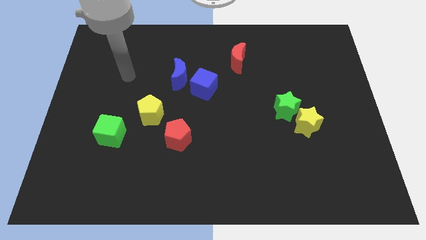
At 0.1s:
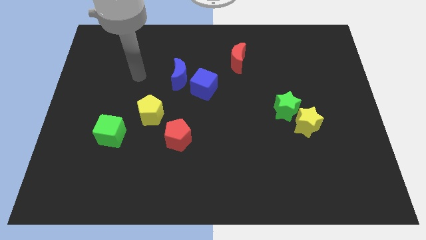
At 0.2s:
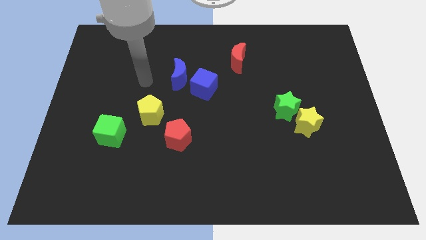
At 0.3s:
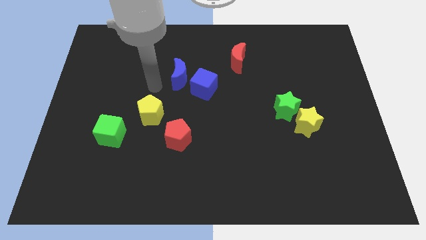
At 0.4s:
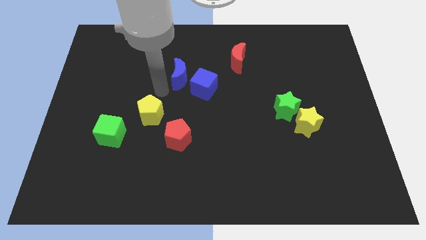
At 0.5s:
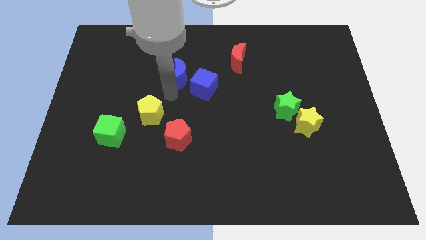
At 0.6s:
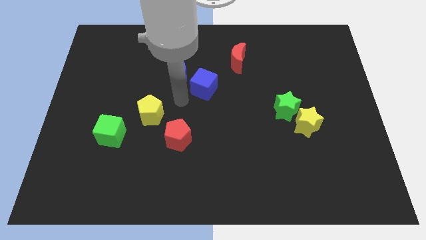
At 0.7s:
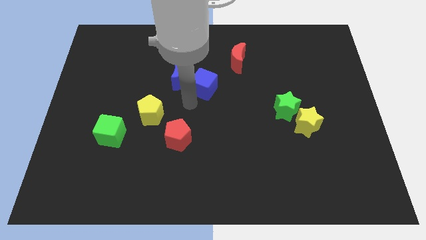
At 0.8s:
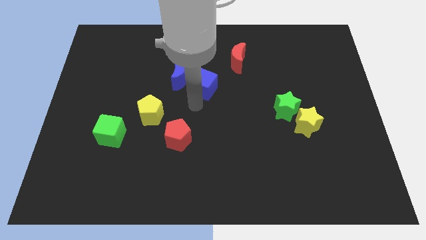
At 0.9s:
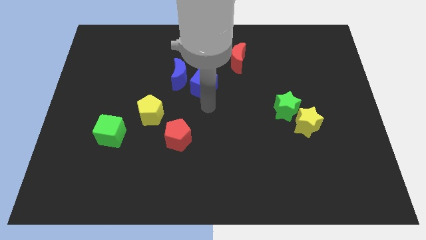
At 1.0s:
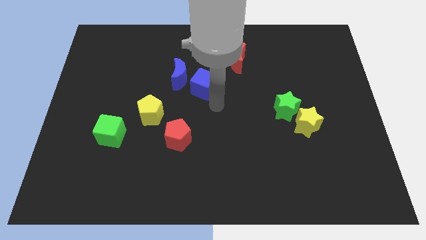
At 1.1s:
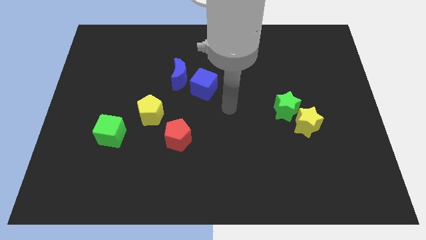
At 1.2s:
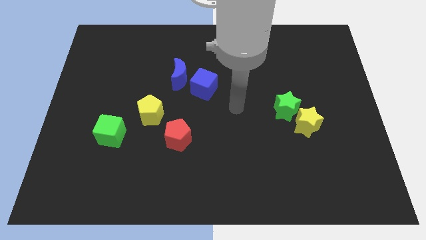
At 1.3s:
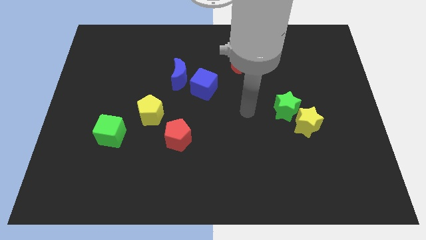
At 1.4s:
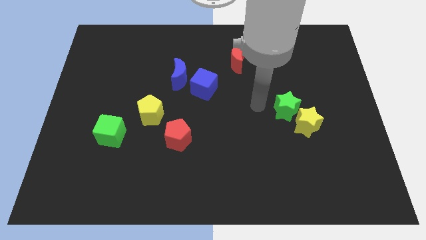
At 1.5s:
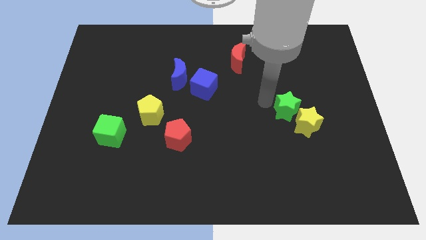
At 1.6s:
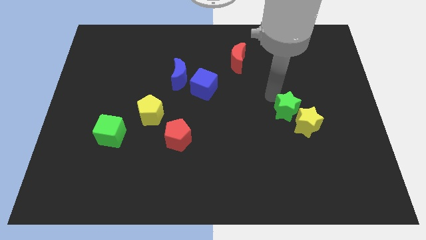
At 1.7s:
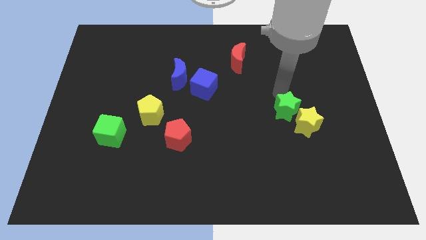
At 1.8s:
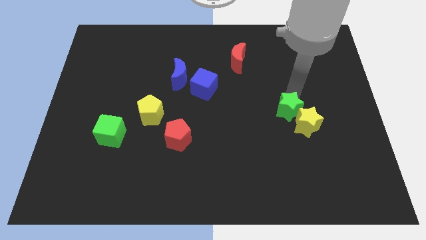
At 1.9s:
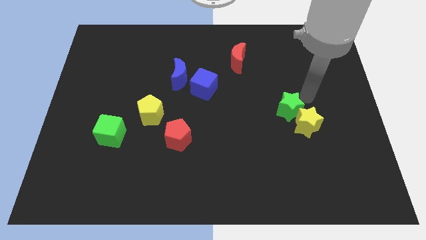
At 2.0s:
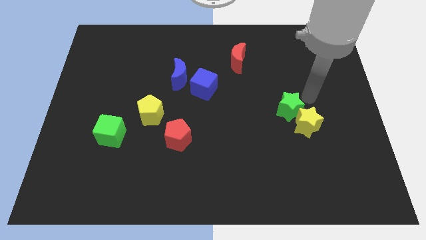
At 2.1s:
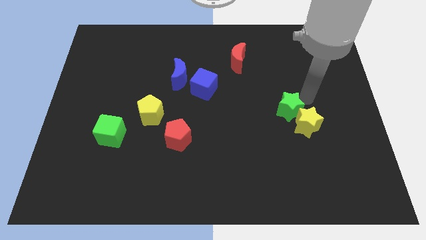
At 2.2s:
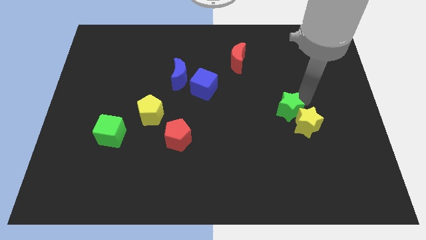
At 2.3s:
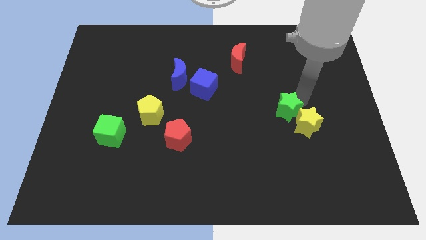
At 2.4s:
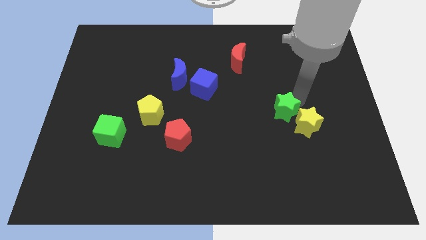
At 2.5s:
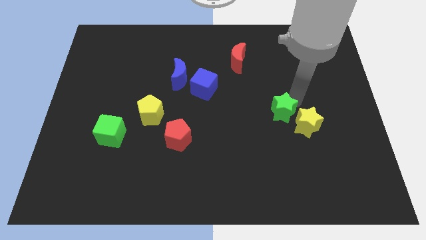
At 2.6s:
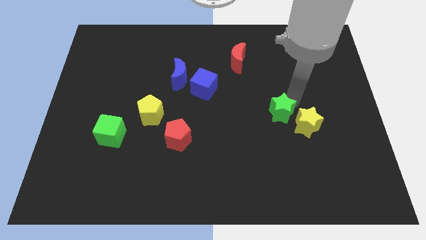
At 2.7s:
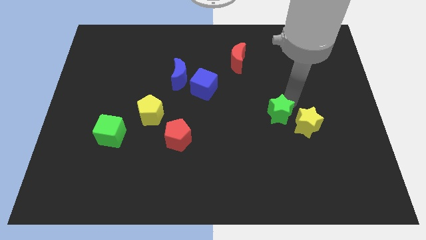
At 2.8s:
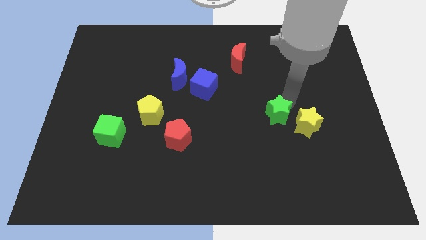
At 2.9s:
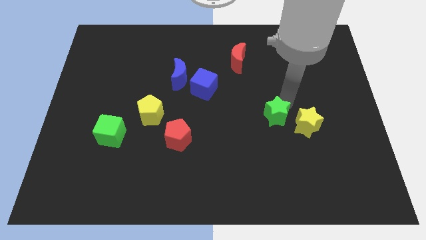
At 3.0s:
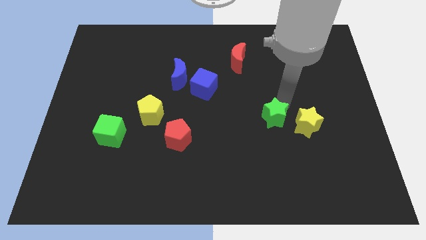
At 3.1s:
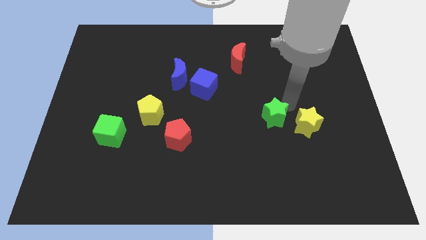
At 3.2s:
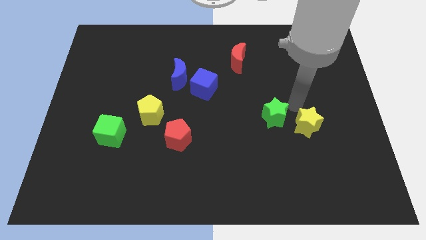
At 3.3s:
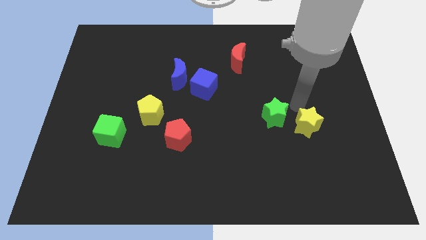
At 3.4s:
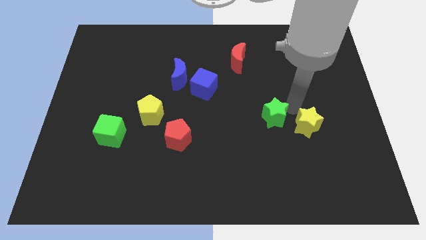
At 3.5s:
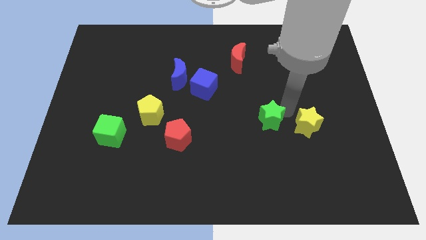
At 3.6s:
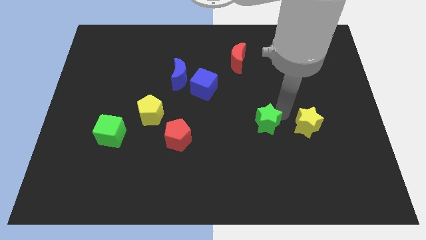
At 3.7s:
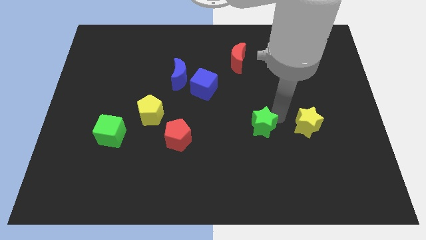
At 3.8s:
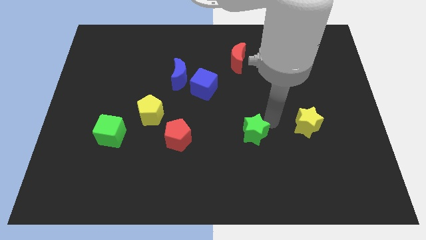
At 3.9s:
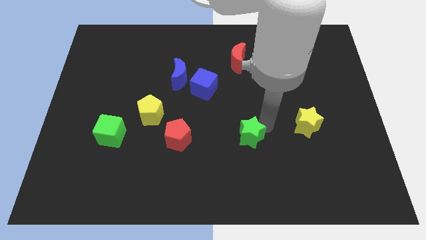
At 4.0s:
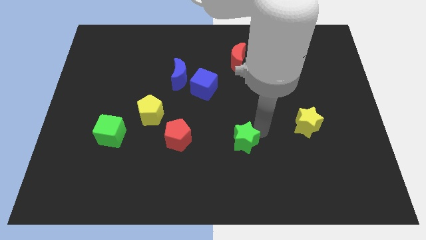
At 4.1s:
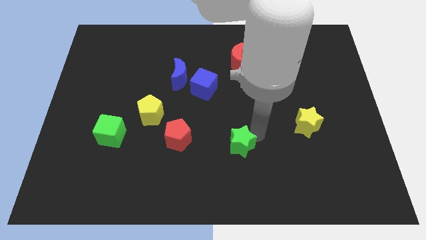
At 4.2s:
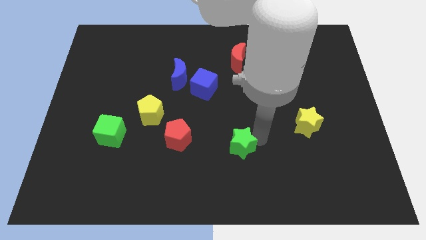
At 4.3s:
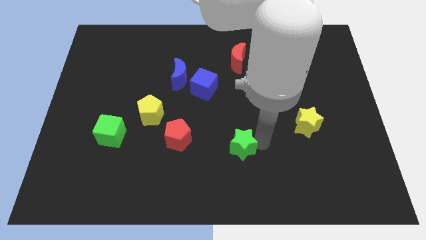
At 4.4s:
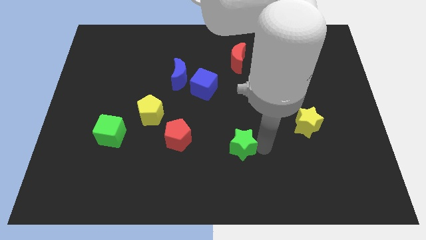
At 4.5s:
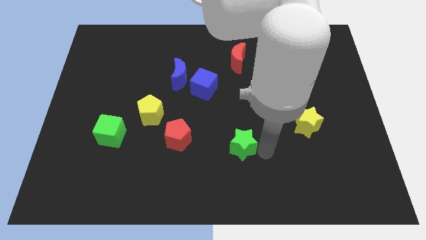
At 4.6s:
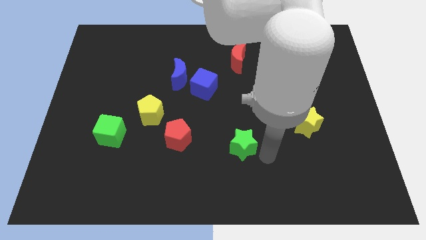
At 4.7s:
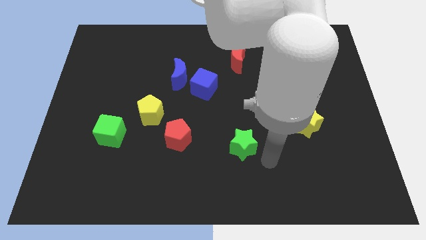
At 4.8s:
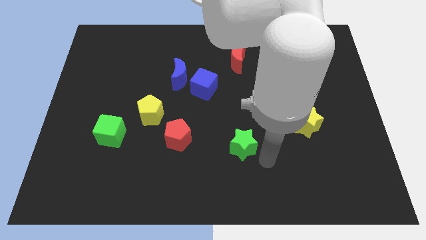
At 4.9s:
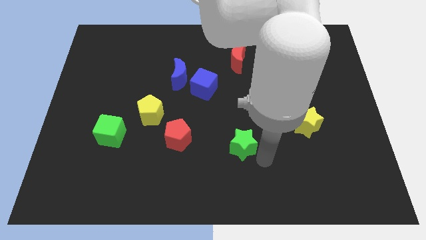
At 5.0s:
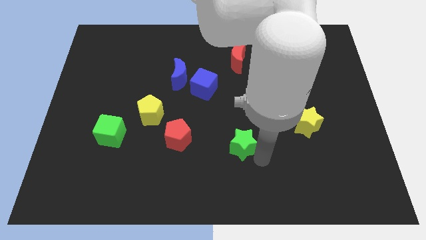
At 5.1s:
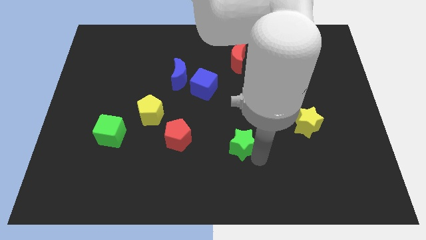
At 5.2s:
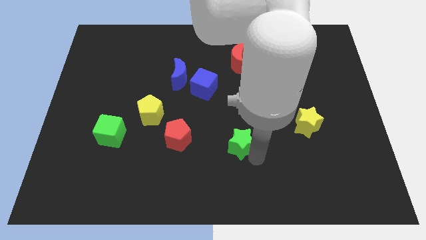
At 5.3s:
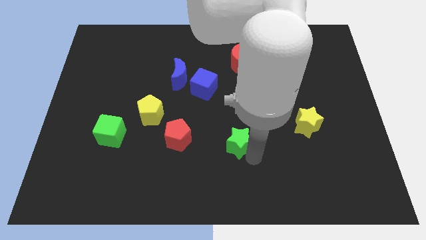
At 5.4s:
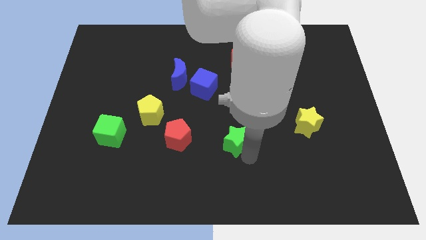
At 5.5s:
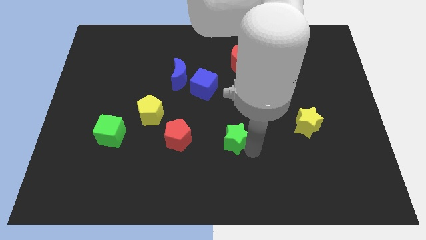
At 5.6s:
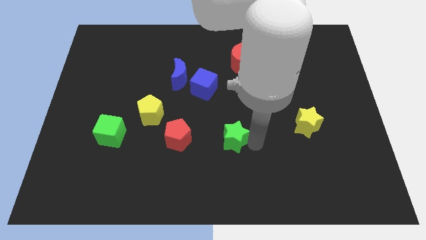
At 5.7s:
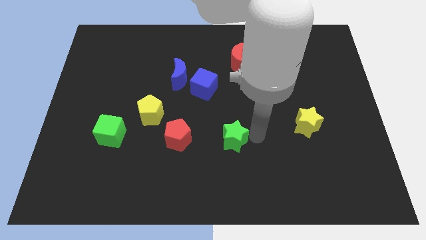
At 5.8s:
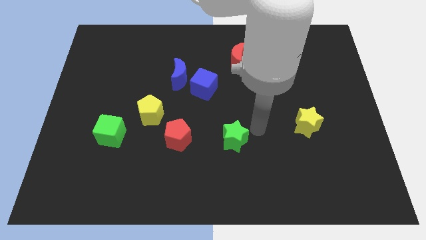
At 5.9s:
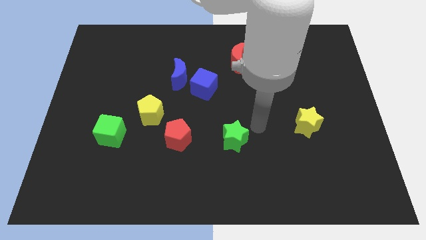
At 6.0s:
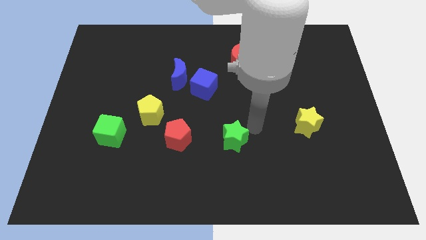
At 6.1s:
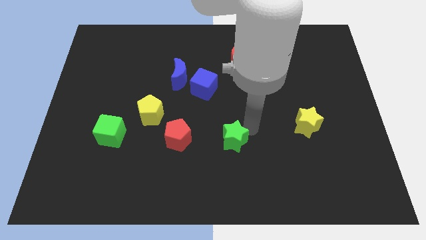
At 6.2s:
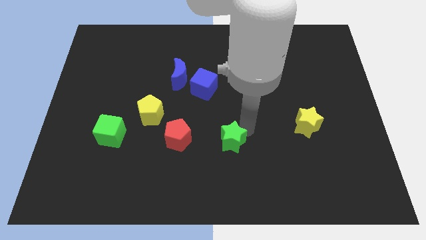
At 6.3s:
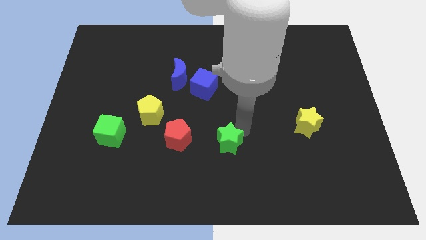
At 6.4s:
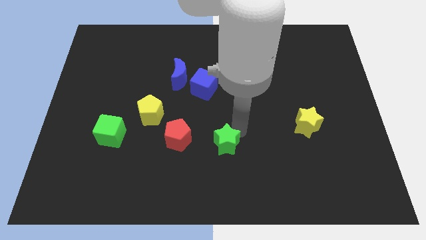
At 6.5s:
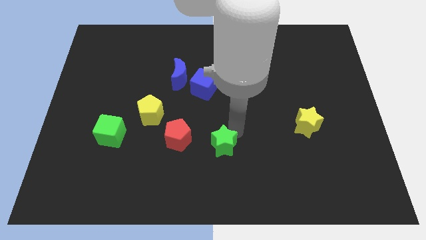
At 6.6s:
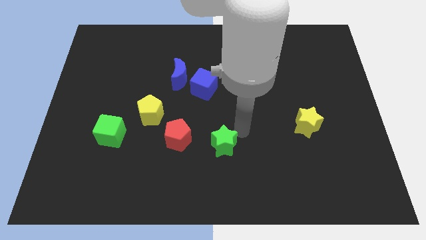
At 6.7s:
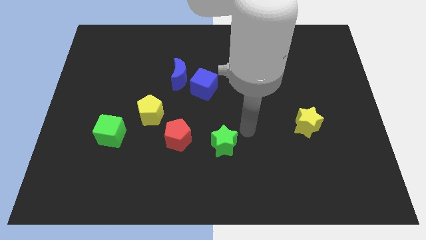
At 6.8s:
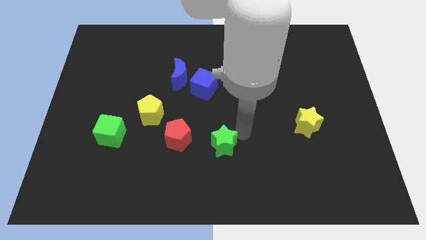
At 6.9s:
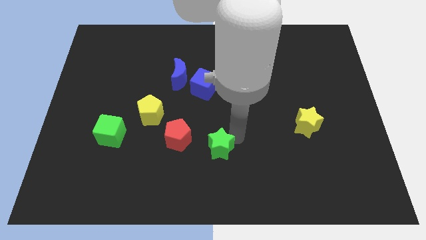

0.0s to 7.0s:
put the green star diagonally down and to the right of the red pentagon
